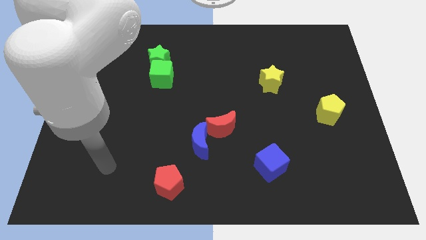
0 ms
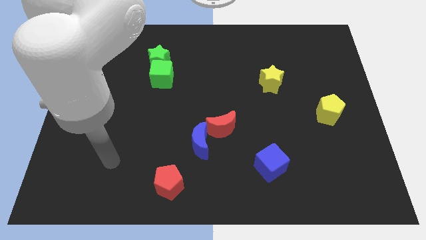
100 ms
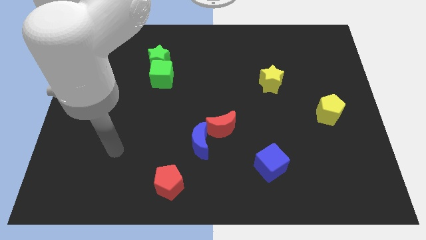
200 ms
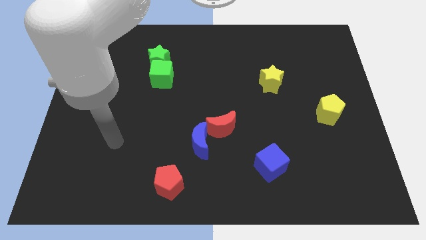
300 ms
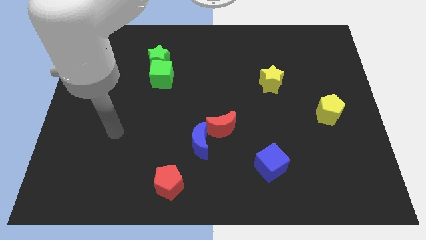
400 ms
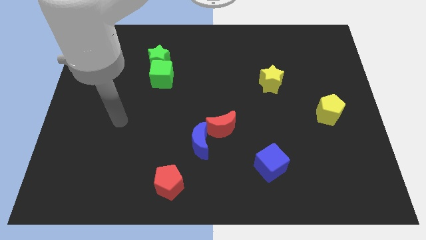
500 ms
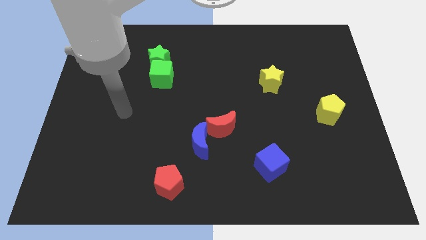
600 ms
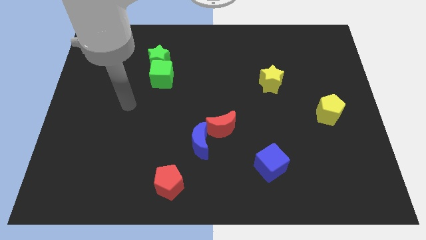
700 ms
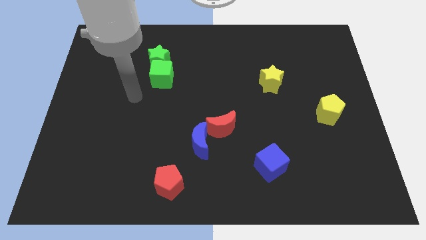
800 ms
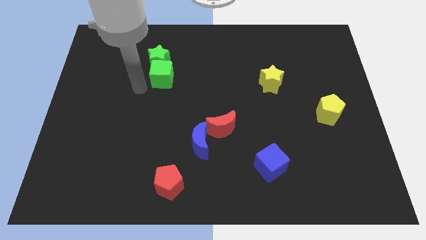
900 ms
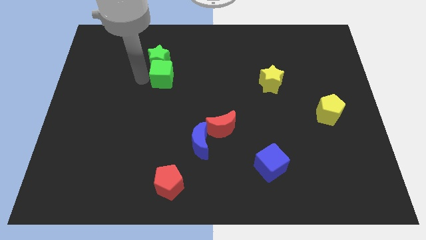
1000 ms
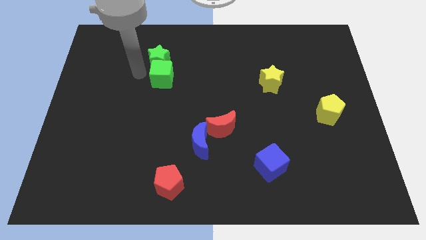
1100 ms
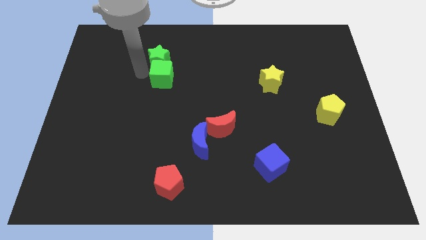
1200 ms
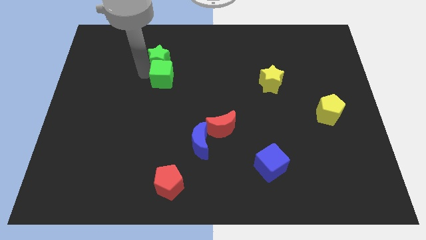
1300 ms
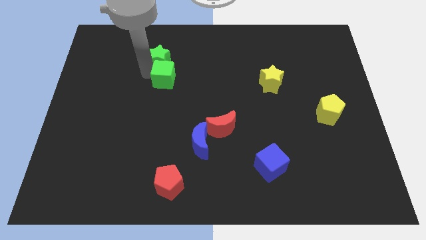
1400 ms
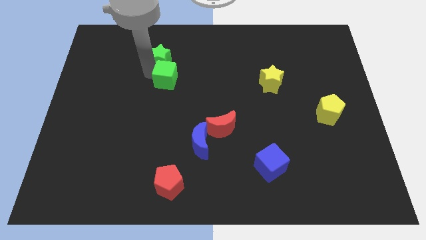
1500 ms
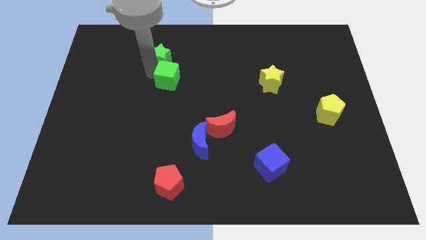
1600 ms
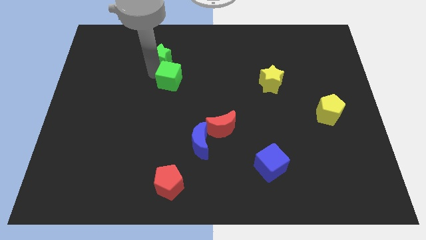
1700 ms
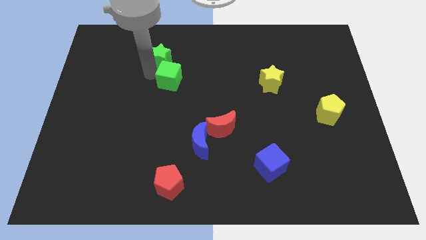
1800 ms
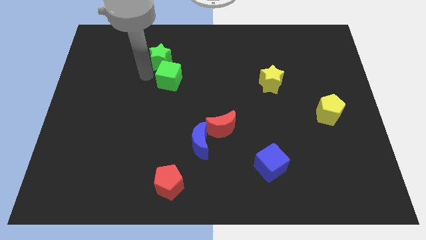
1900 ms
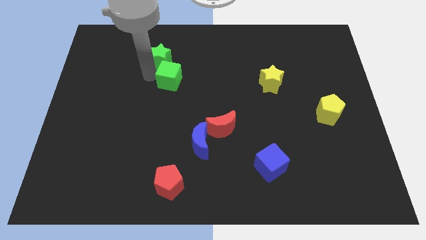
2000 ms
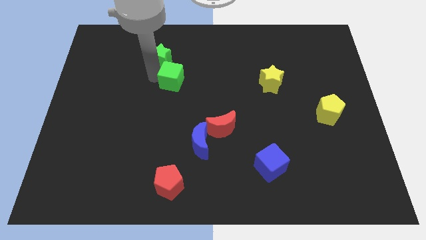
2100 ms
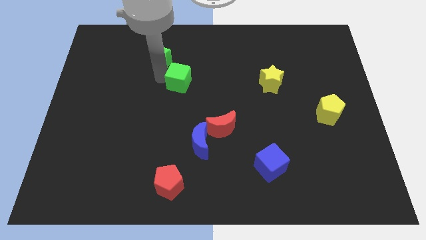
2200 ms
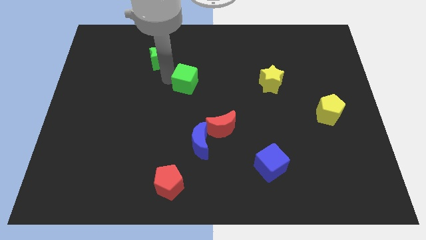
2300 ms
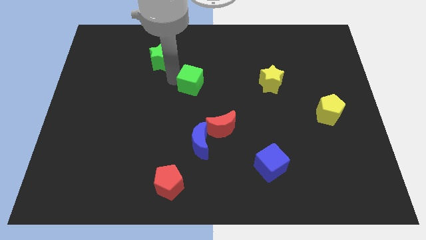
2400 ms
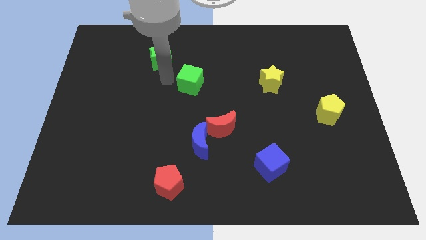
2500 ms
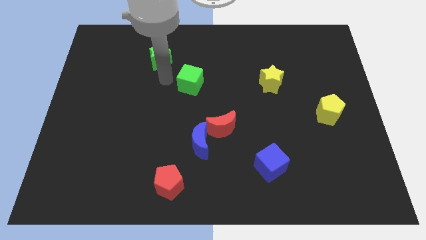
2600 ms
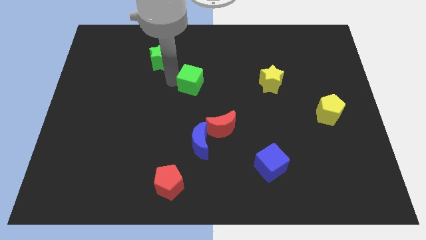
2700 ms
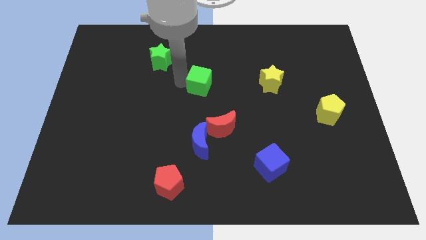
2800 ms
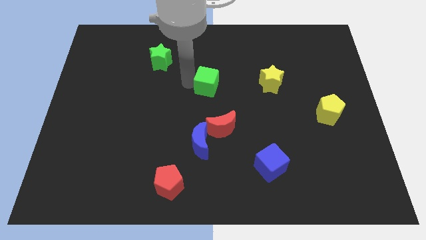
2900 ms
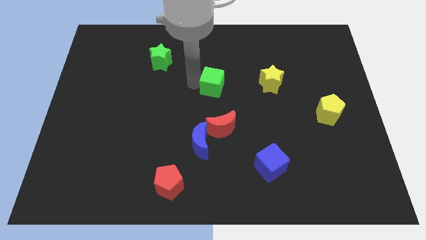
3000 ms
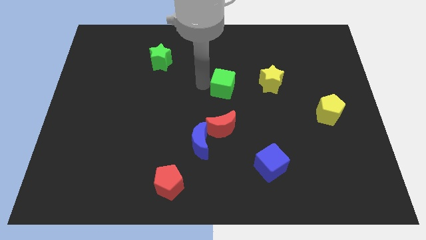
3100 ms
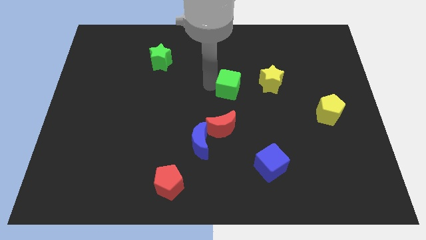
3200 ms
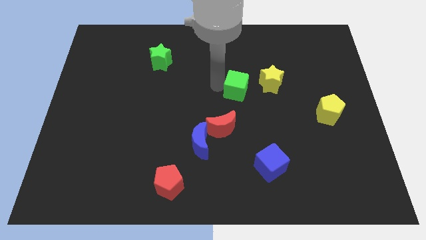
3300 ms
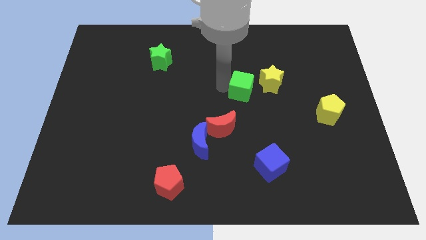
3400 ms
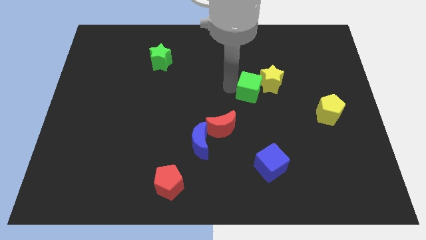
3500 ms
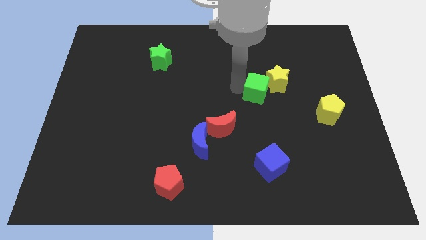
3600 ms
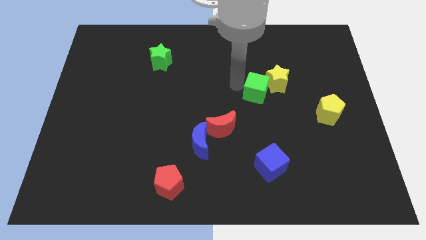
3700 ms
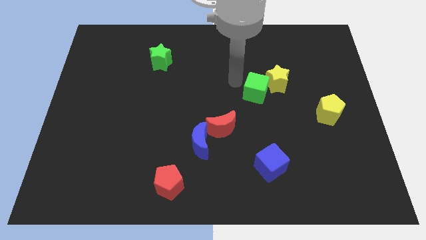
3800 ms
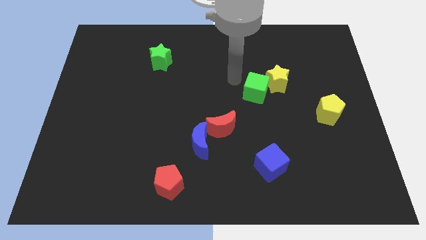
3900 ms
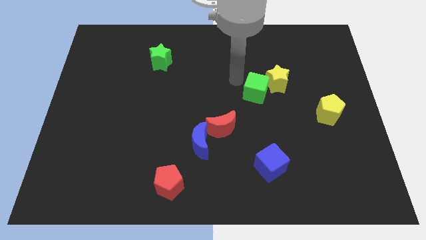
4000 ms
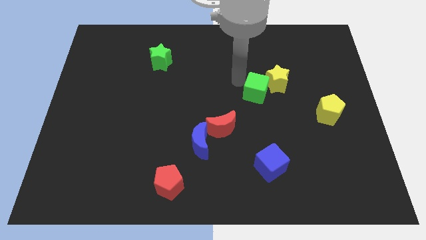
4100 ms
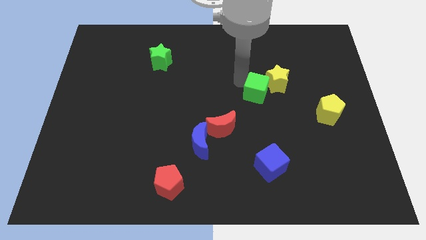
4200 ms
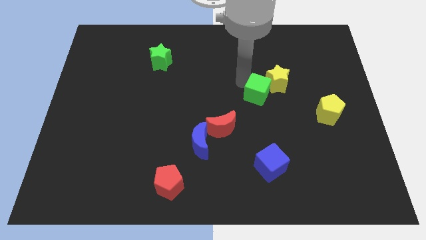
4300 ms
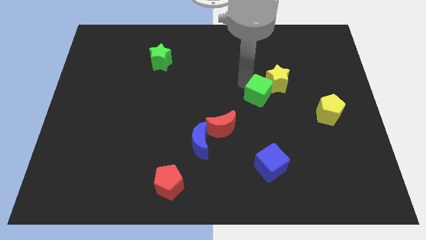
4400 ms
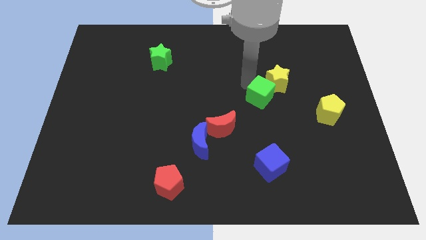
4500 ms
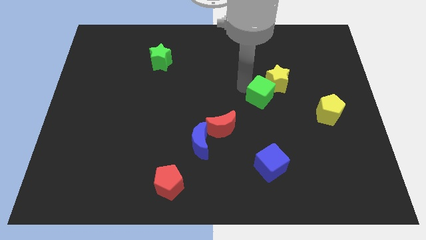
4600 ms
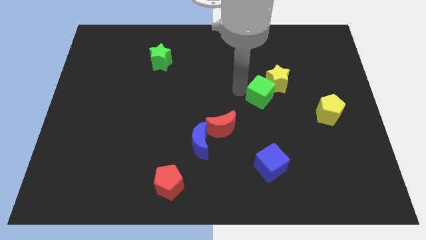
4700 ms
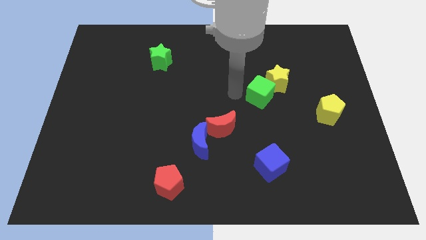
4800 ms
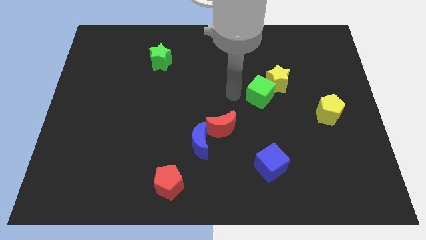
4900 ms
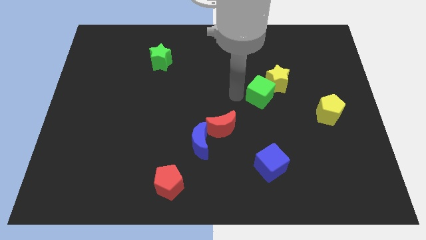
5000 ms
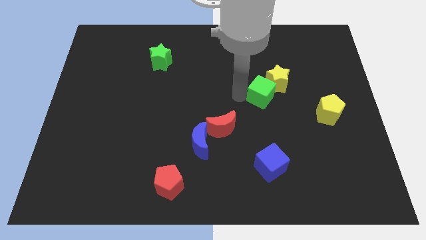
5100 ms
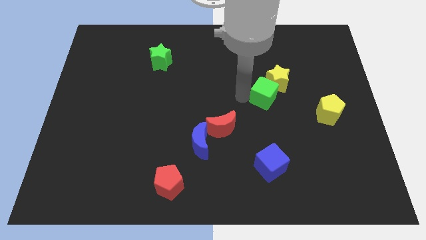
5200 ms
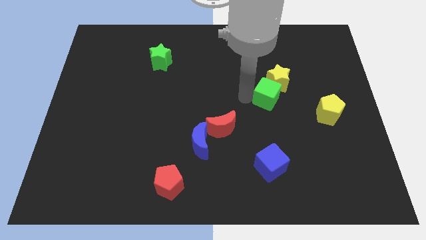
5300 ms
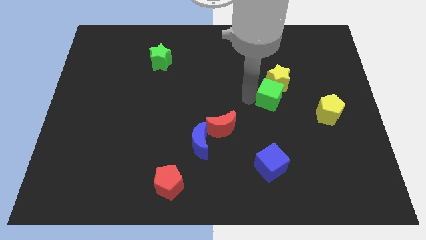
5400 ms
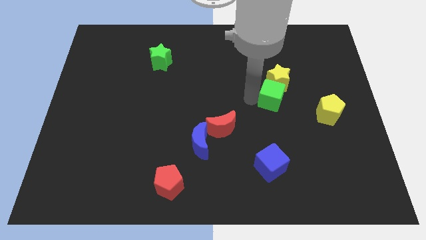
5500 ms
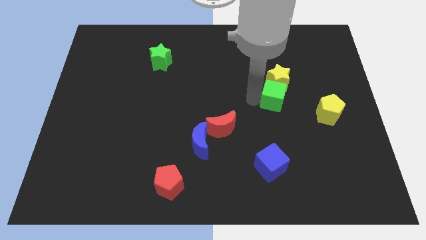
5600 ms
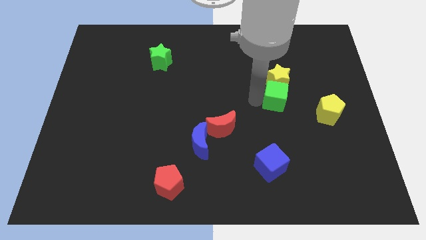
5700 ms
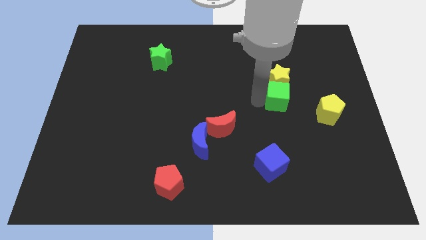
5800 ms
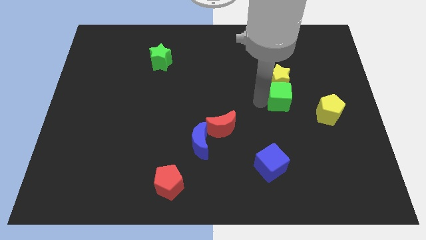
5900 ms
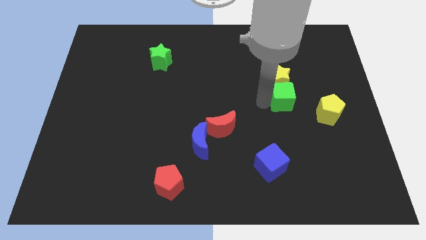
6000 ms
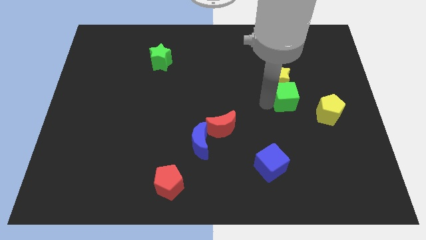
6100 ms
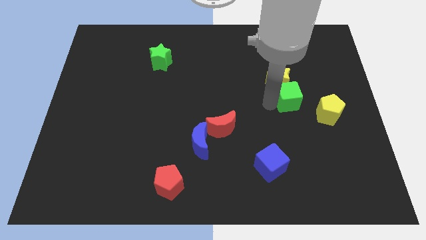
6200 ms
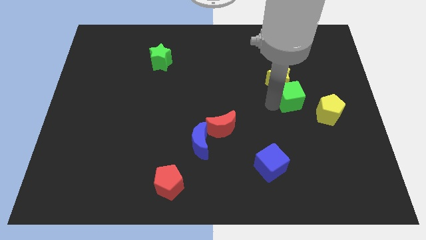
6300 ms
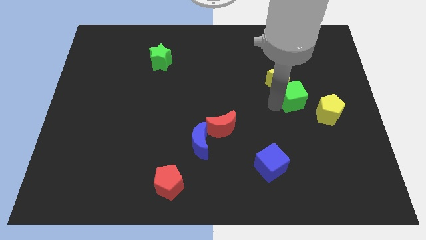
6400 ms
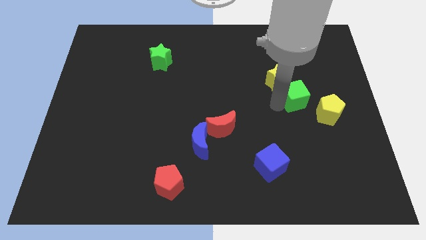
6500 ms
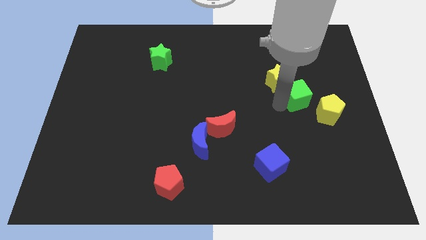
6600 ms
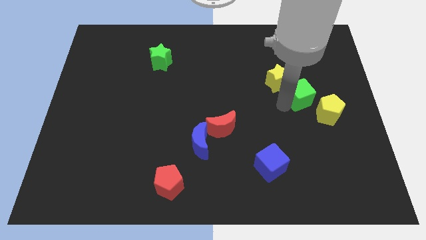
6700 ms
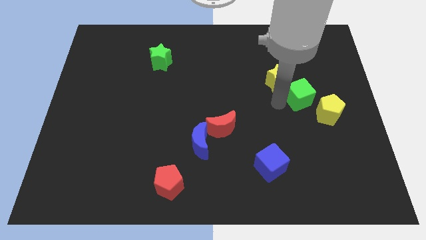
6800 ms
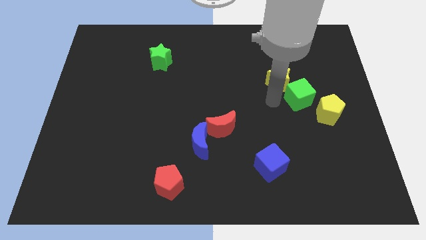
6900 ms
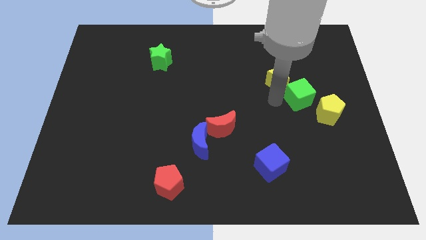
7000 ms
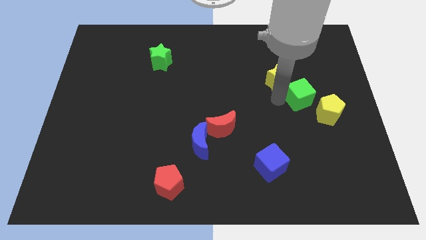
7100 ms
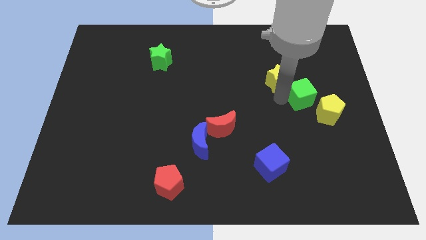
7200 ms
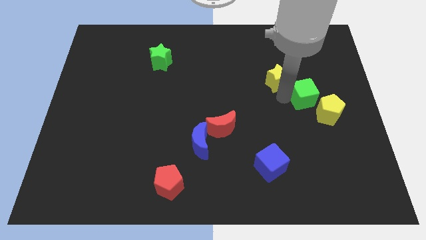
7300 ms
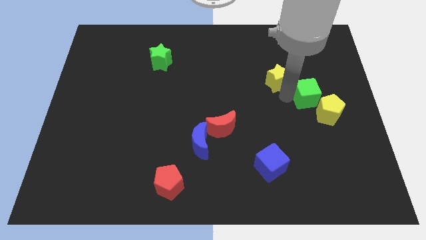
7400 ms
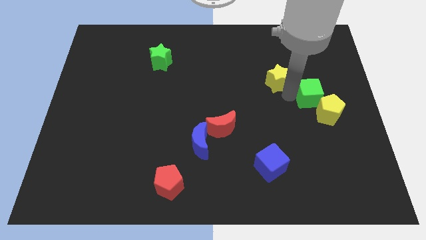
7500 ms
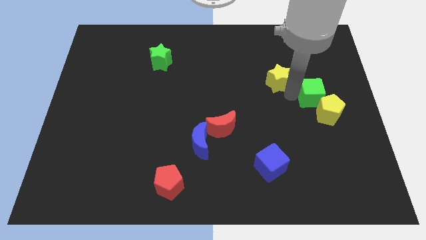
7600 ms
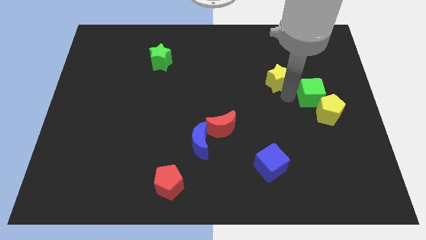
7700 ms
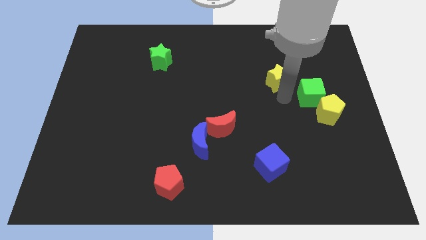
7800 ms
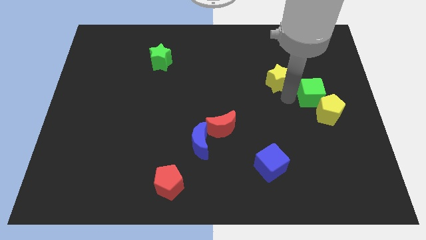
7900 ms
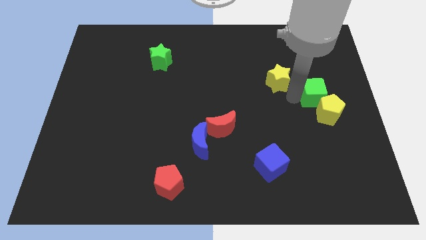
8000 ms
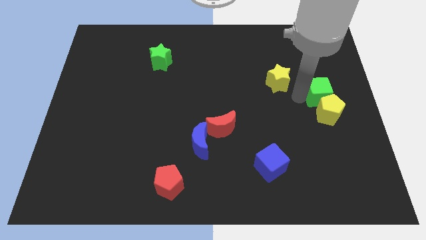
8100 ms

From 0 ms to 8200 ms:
put the green cube to the right side of the board
